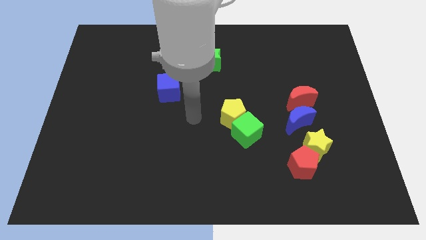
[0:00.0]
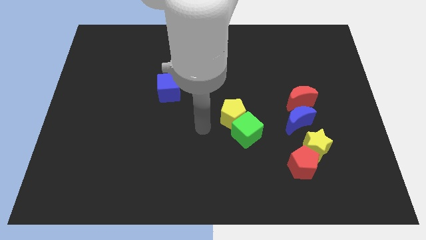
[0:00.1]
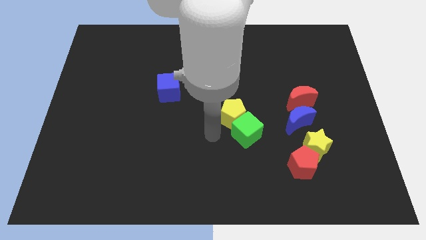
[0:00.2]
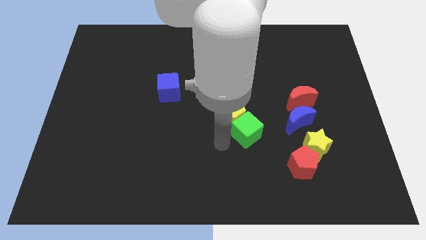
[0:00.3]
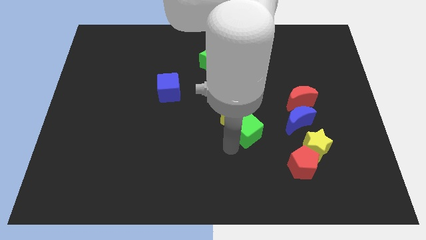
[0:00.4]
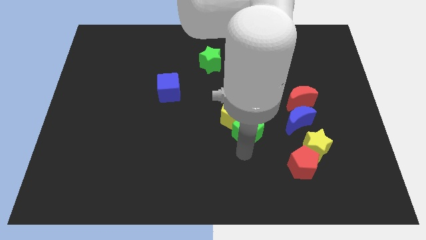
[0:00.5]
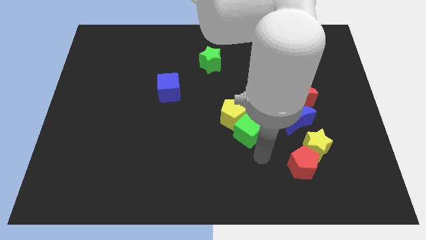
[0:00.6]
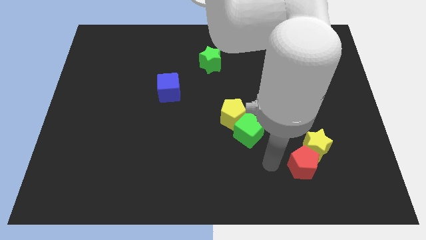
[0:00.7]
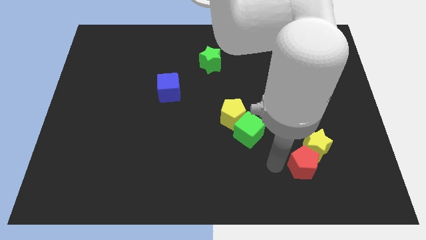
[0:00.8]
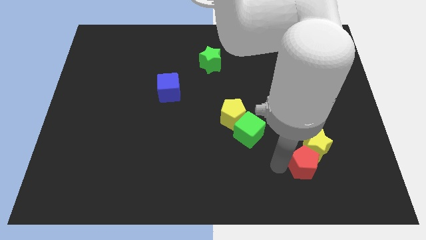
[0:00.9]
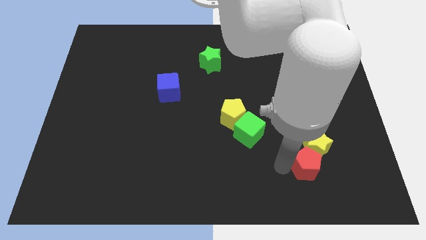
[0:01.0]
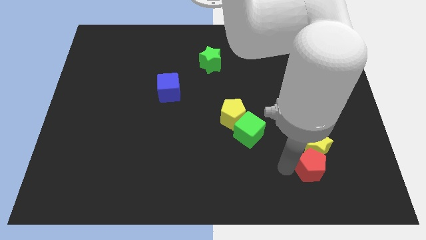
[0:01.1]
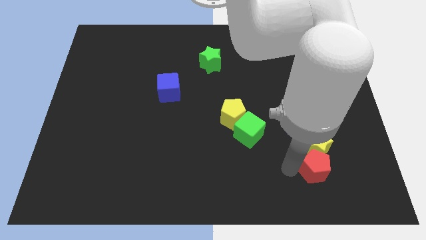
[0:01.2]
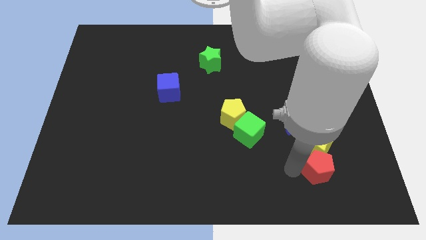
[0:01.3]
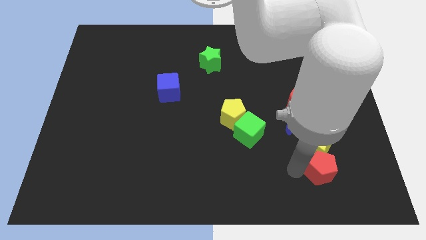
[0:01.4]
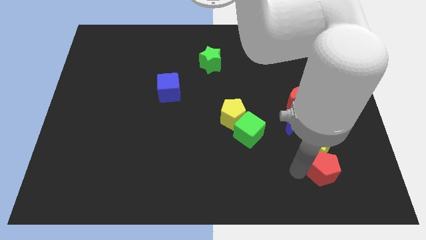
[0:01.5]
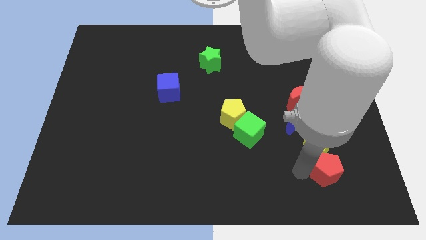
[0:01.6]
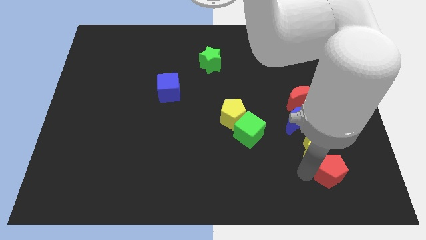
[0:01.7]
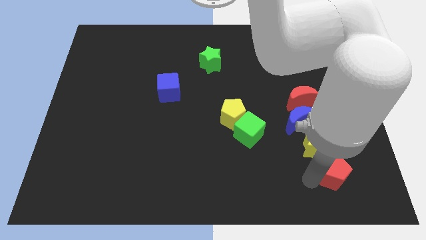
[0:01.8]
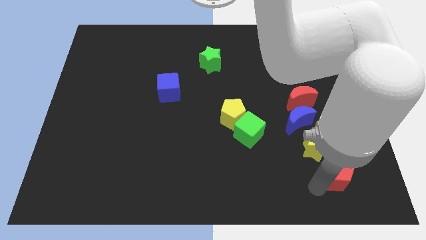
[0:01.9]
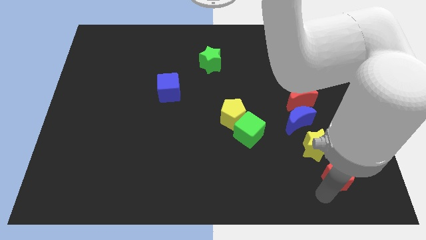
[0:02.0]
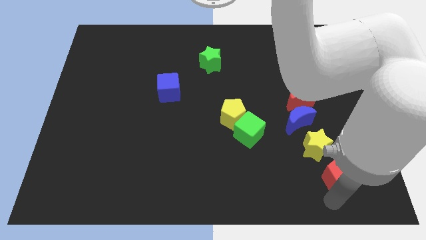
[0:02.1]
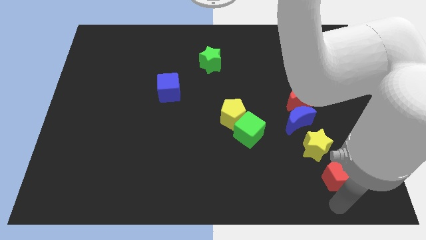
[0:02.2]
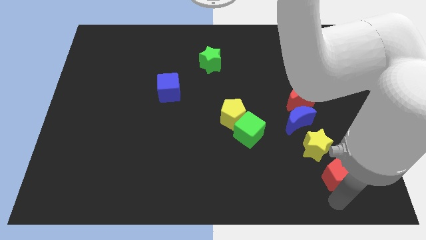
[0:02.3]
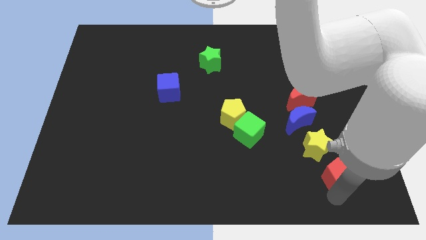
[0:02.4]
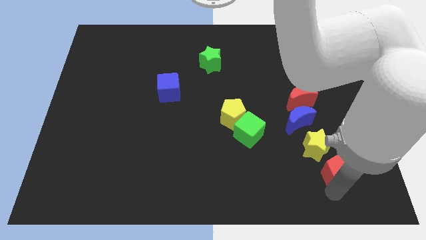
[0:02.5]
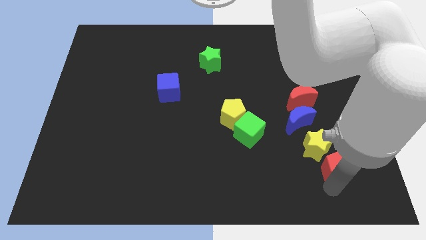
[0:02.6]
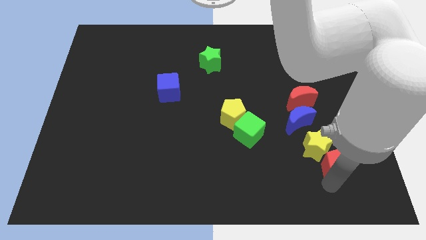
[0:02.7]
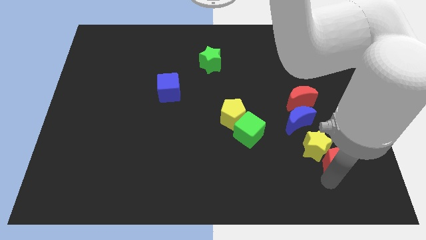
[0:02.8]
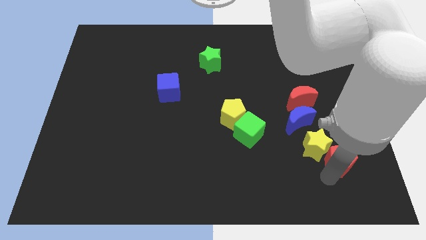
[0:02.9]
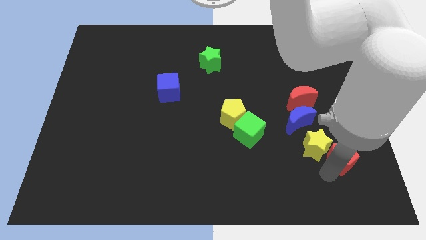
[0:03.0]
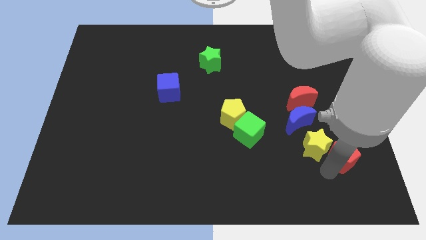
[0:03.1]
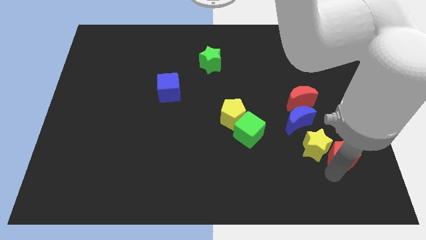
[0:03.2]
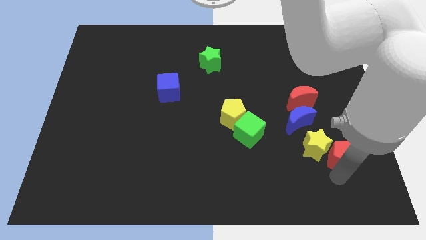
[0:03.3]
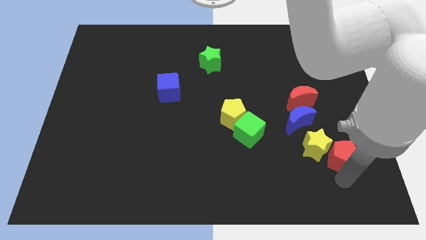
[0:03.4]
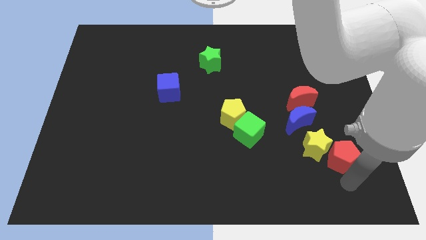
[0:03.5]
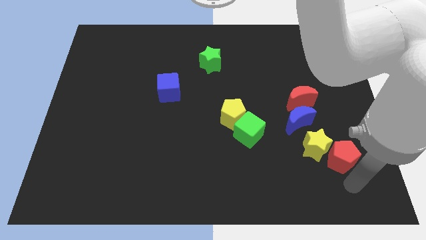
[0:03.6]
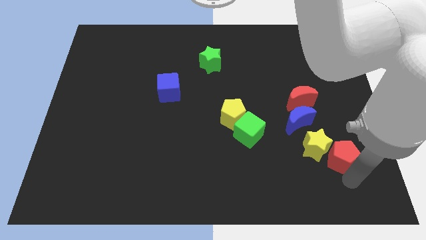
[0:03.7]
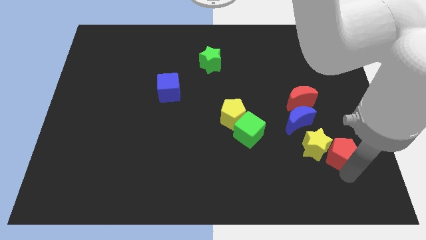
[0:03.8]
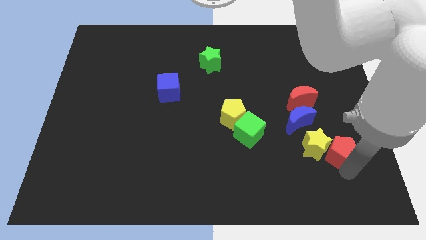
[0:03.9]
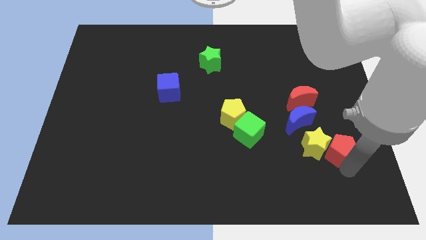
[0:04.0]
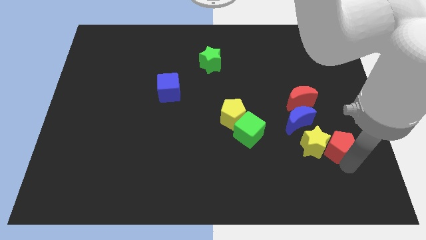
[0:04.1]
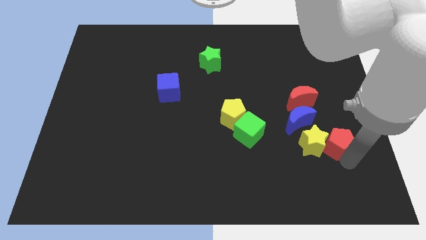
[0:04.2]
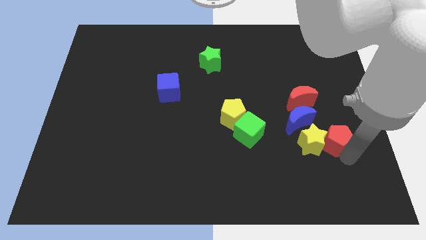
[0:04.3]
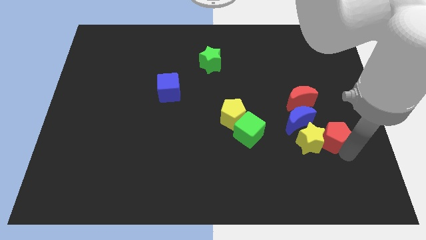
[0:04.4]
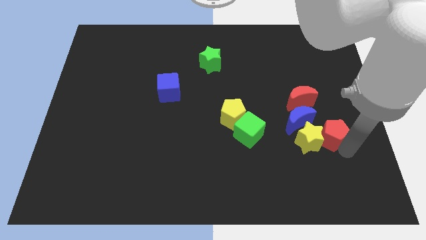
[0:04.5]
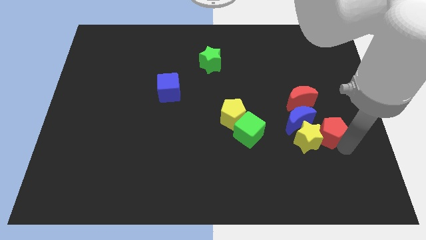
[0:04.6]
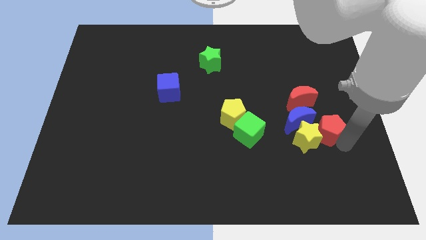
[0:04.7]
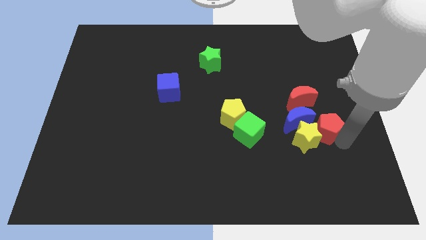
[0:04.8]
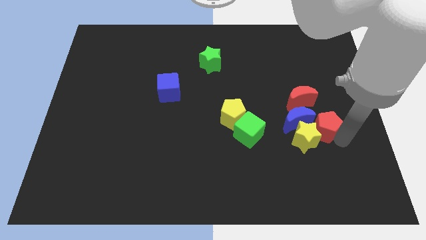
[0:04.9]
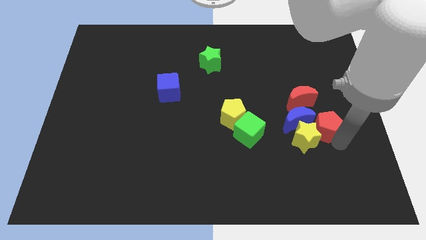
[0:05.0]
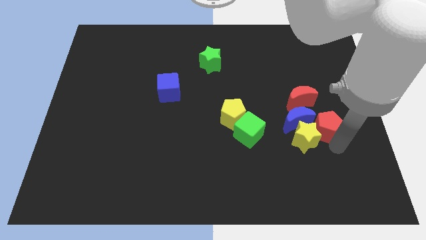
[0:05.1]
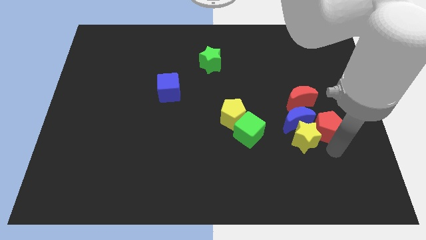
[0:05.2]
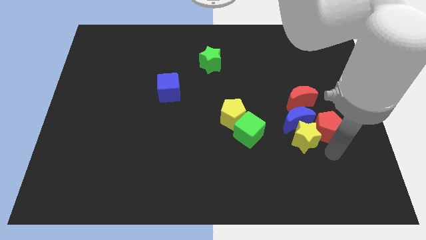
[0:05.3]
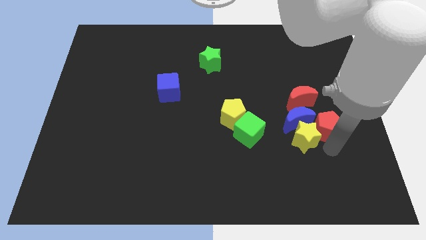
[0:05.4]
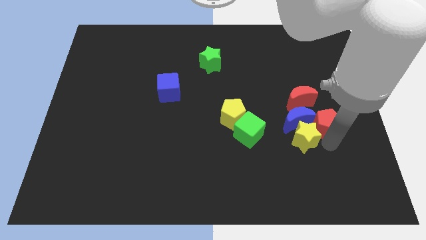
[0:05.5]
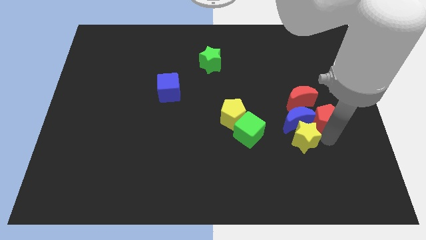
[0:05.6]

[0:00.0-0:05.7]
put the red pentagon diagonally up and to the right of the blue moon

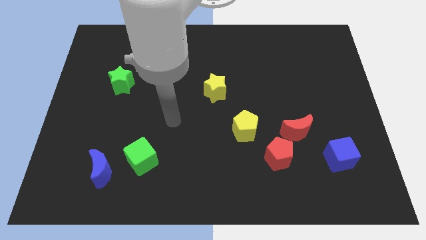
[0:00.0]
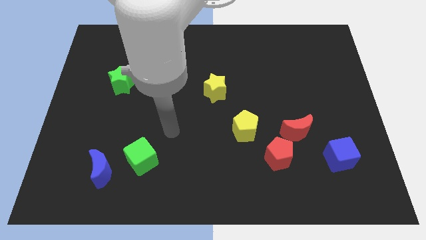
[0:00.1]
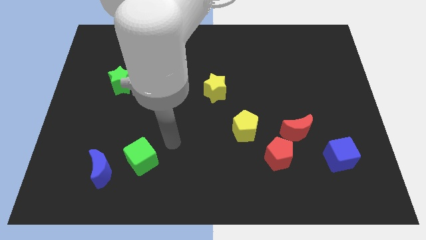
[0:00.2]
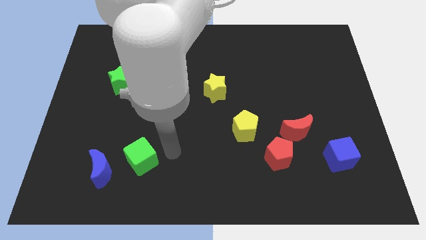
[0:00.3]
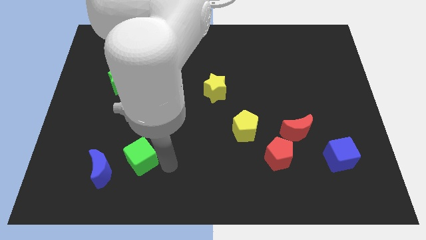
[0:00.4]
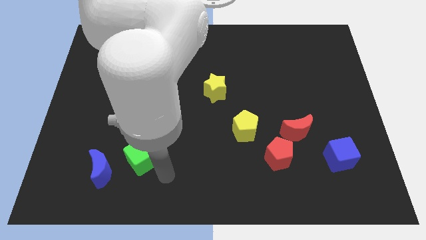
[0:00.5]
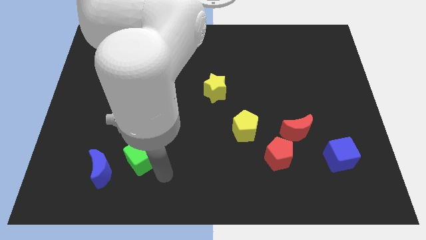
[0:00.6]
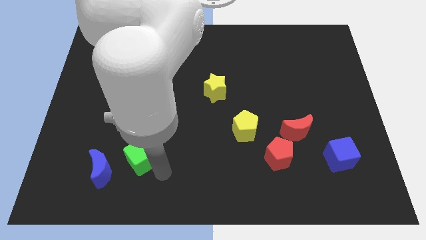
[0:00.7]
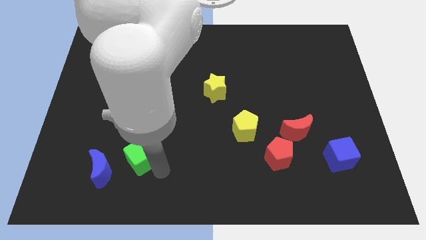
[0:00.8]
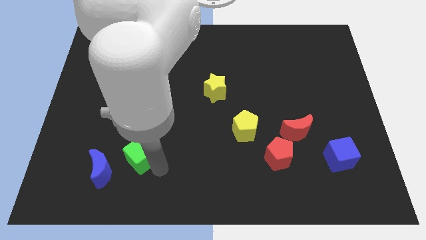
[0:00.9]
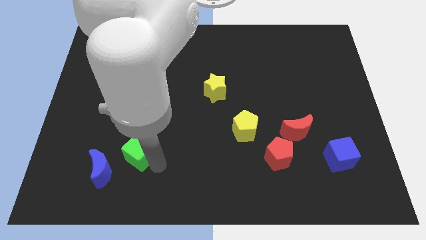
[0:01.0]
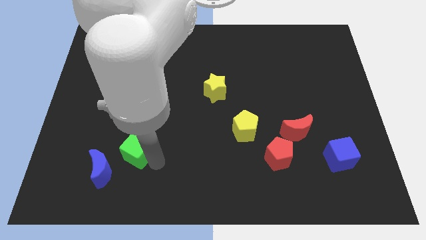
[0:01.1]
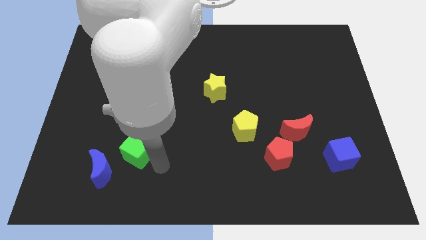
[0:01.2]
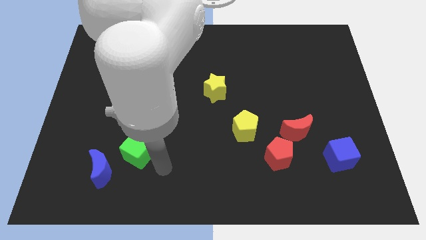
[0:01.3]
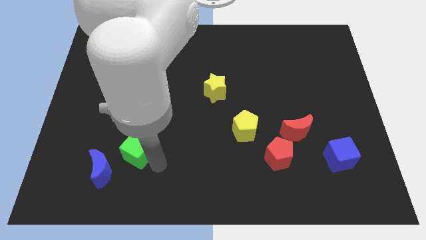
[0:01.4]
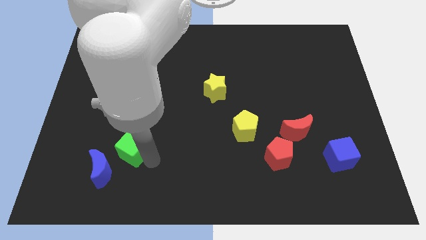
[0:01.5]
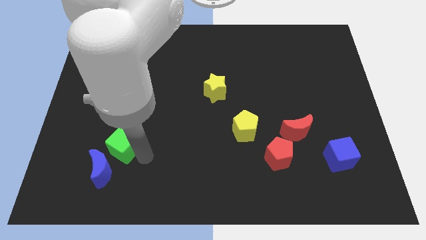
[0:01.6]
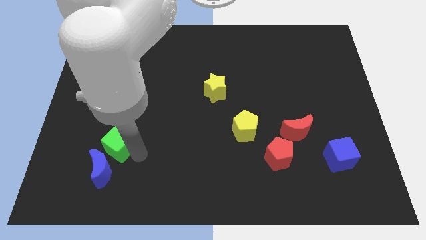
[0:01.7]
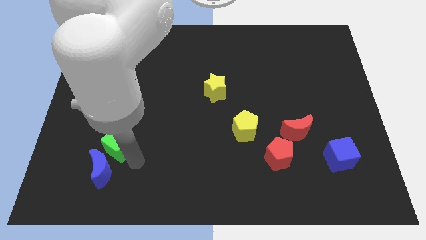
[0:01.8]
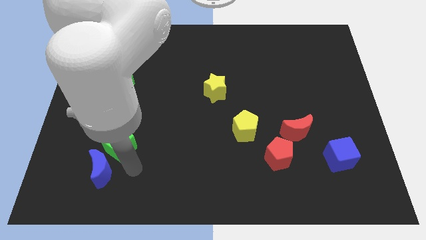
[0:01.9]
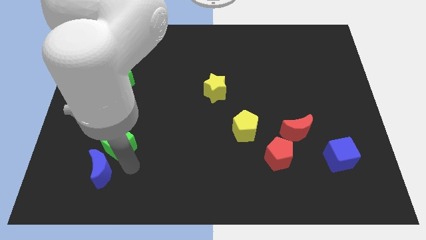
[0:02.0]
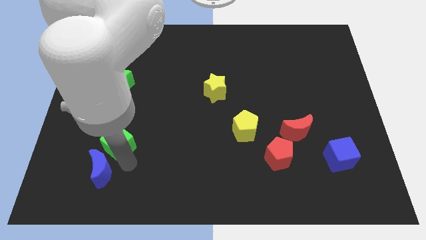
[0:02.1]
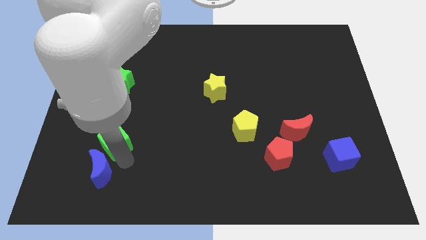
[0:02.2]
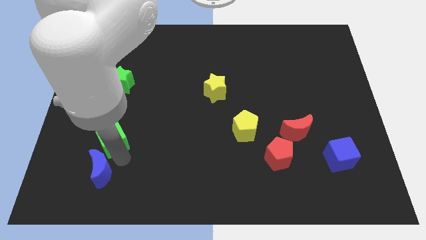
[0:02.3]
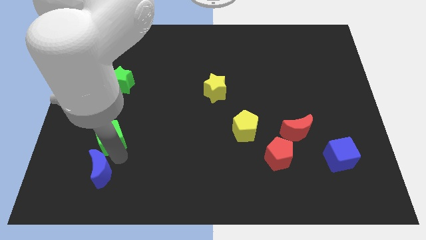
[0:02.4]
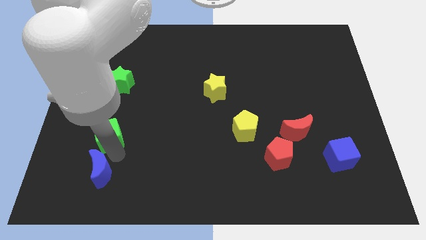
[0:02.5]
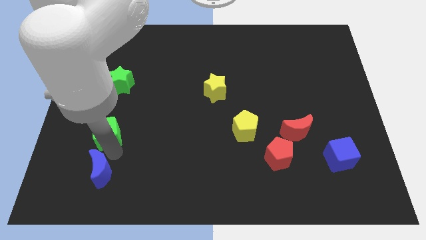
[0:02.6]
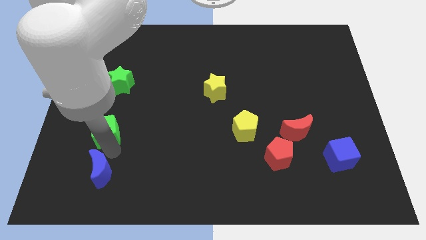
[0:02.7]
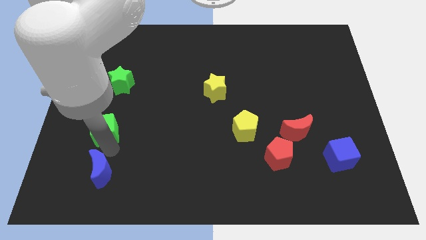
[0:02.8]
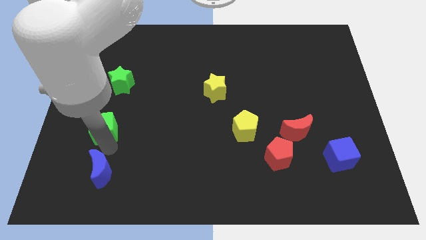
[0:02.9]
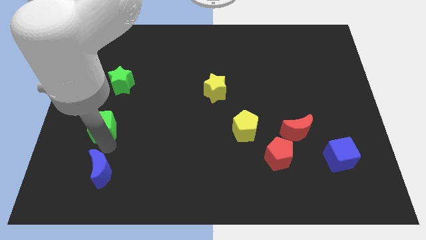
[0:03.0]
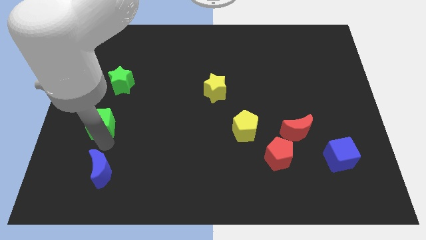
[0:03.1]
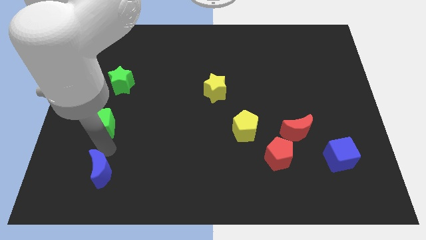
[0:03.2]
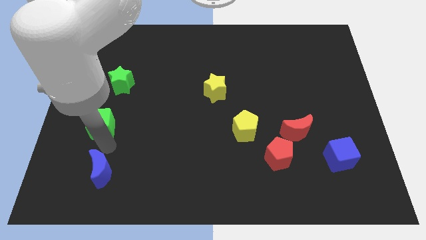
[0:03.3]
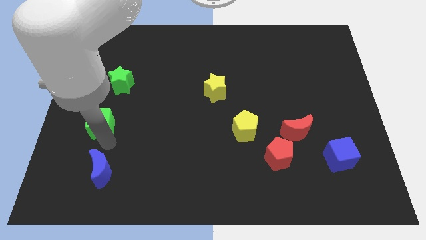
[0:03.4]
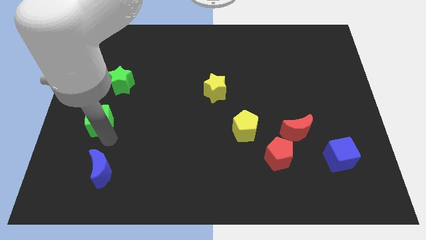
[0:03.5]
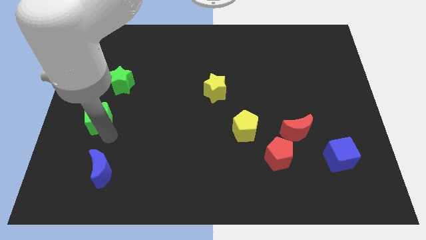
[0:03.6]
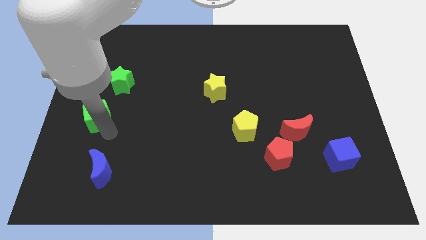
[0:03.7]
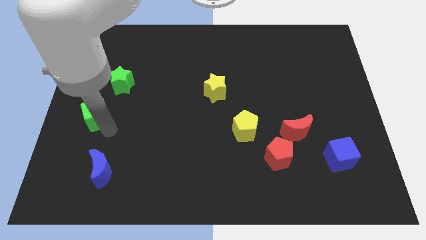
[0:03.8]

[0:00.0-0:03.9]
move the green cube to the bottom left of the green star
